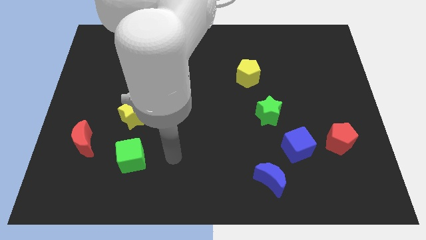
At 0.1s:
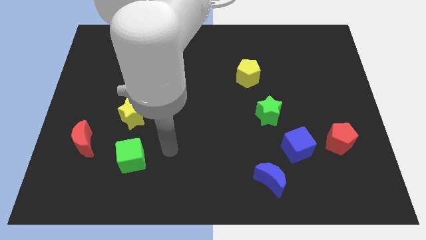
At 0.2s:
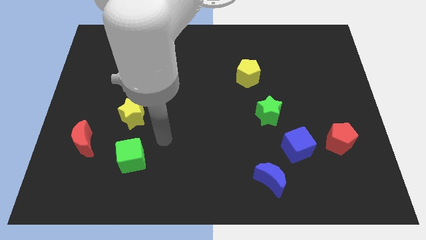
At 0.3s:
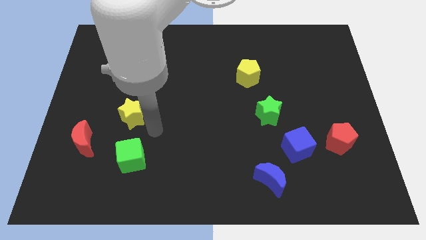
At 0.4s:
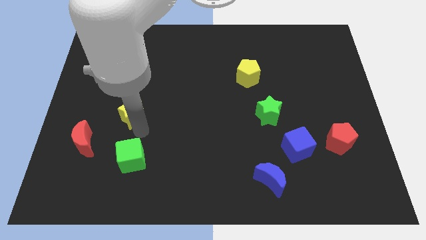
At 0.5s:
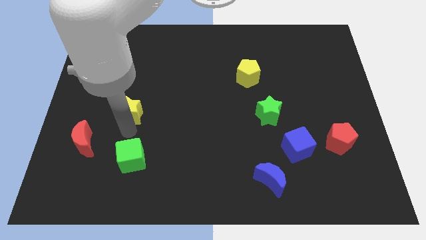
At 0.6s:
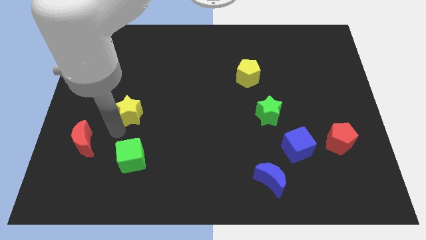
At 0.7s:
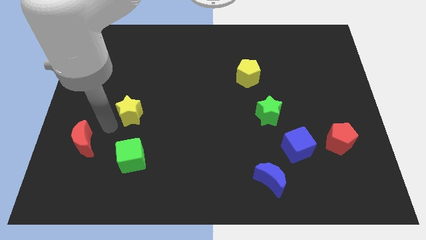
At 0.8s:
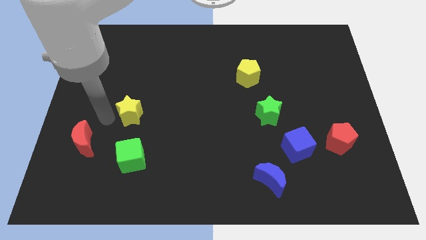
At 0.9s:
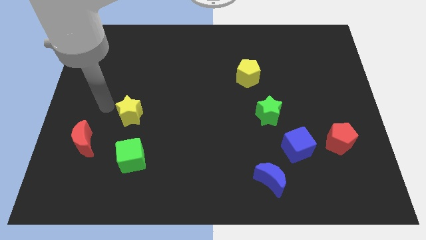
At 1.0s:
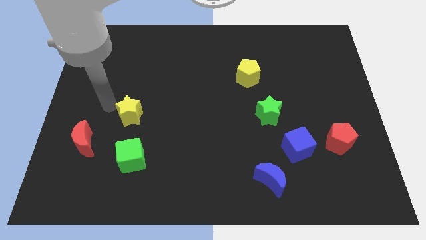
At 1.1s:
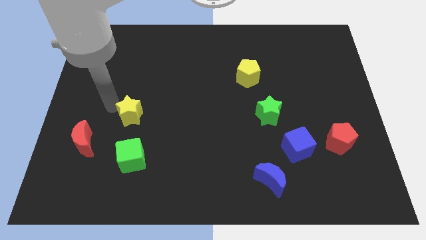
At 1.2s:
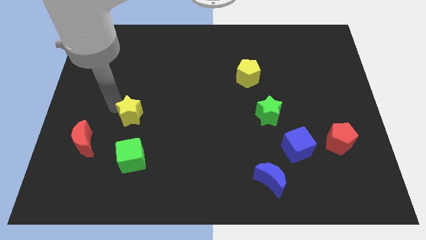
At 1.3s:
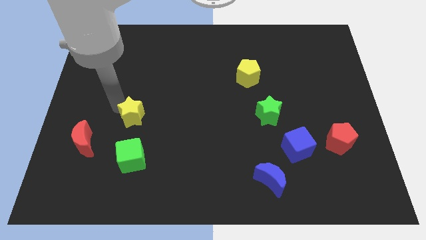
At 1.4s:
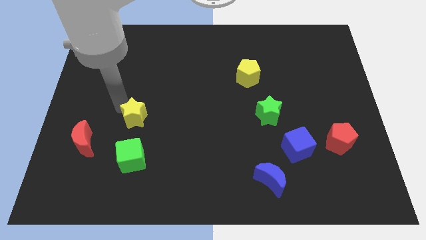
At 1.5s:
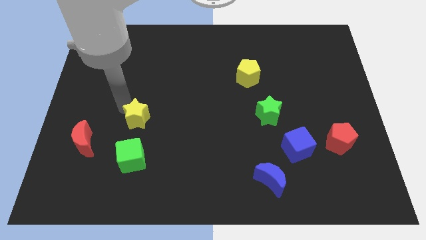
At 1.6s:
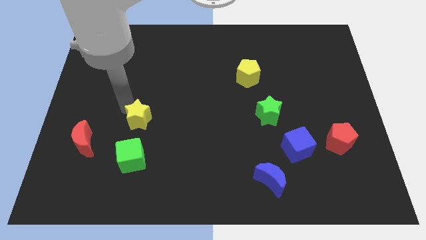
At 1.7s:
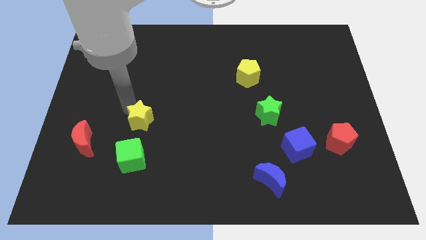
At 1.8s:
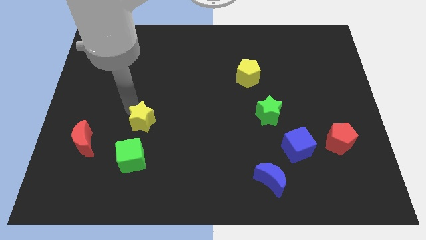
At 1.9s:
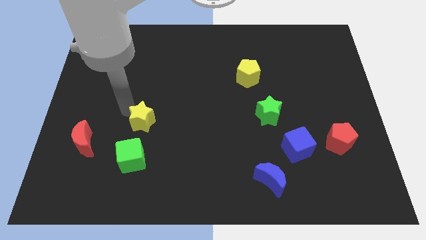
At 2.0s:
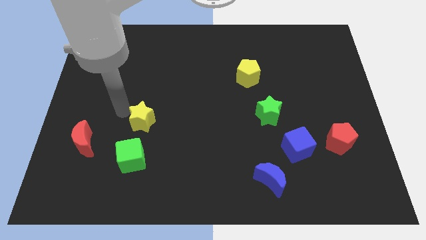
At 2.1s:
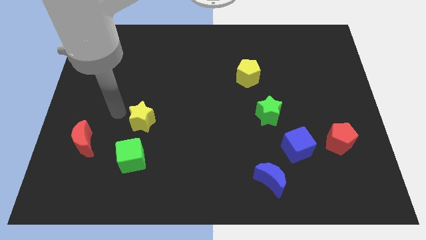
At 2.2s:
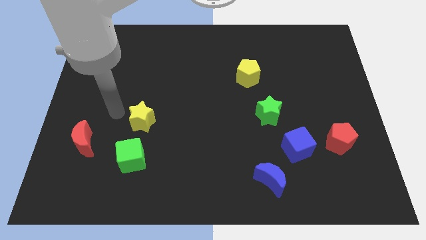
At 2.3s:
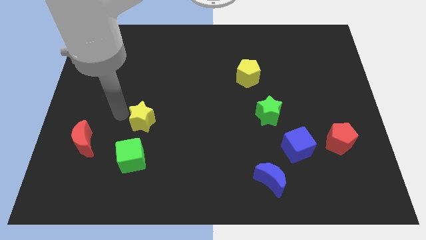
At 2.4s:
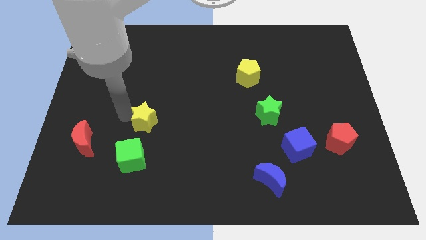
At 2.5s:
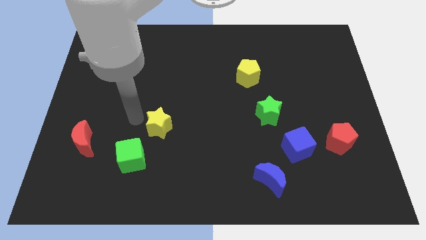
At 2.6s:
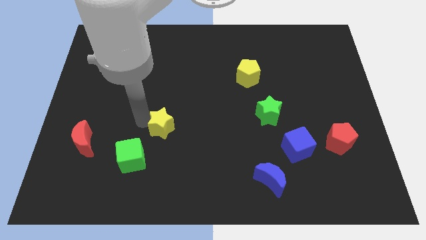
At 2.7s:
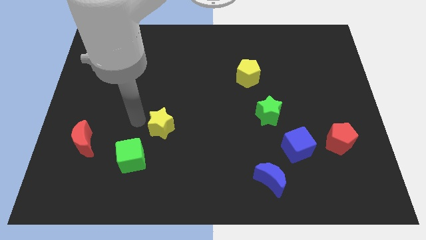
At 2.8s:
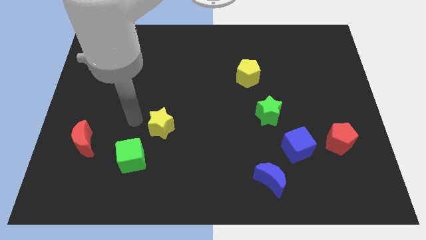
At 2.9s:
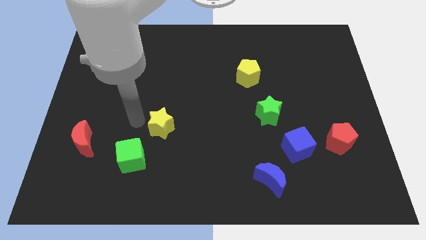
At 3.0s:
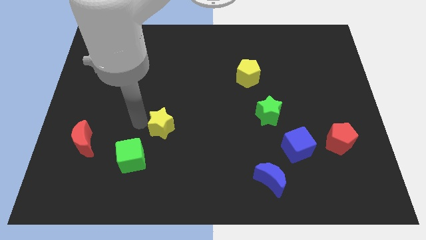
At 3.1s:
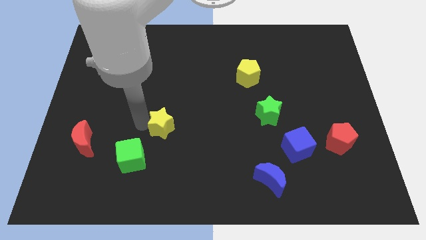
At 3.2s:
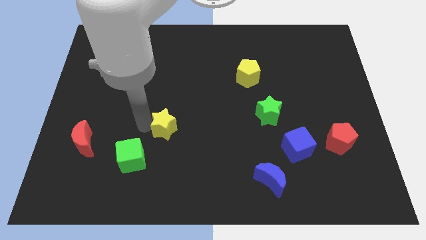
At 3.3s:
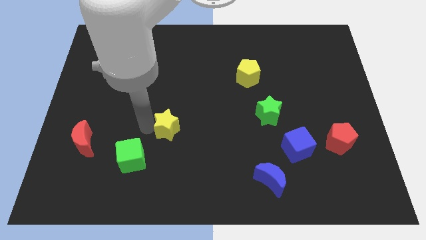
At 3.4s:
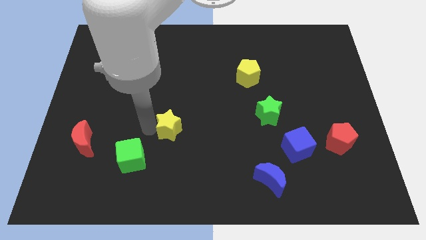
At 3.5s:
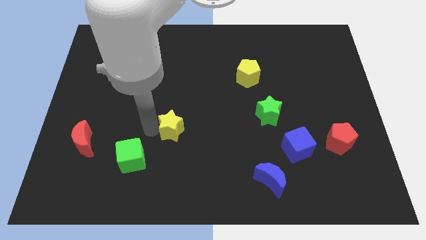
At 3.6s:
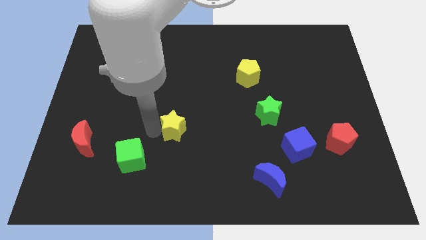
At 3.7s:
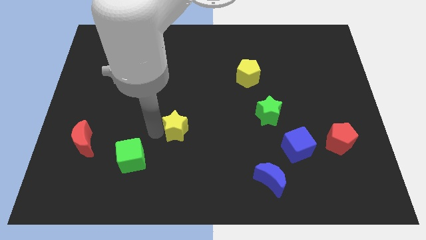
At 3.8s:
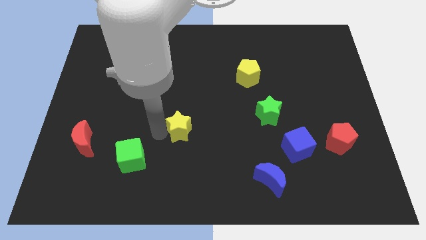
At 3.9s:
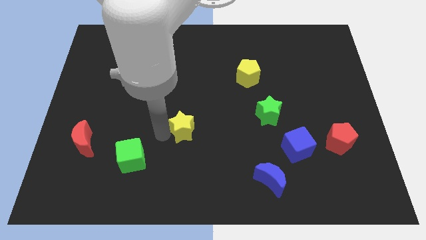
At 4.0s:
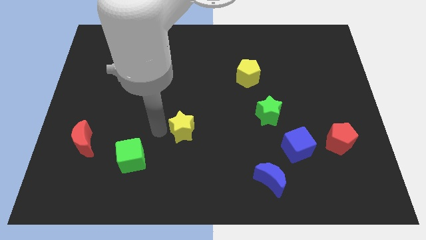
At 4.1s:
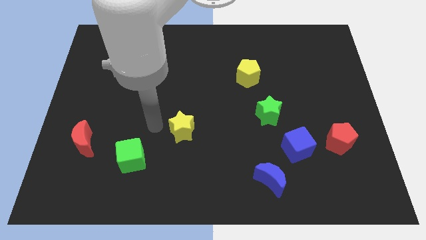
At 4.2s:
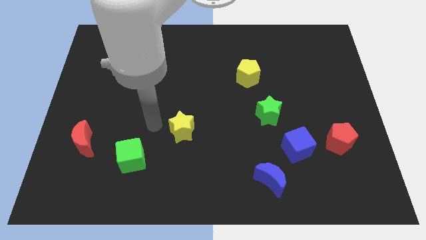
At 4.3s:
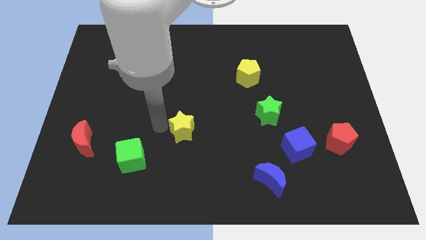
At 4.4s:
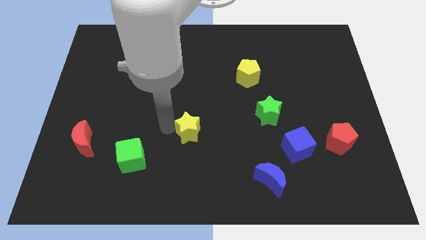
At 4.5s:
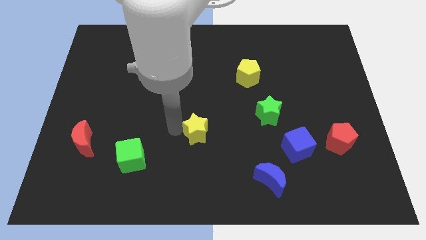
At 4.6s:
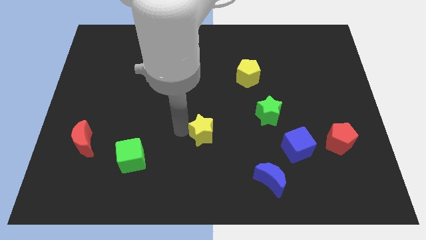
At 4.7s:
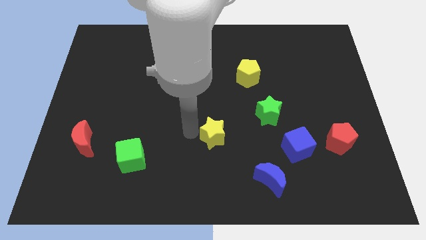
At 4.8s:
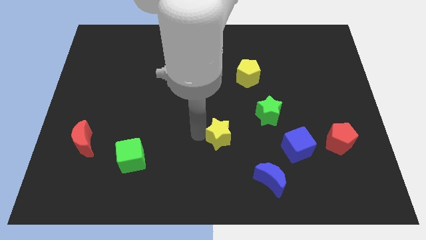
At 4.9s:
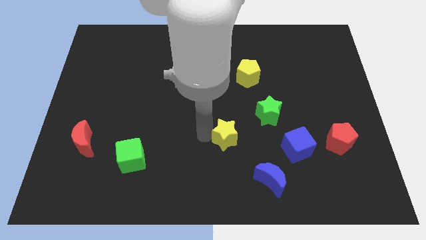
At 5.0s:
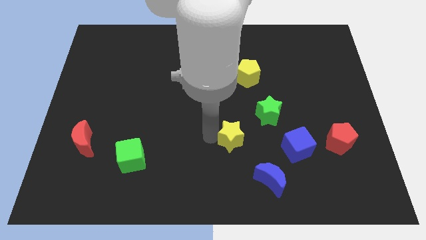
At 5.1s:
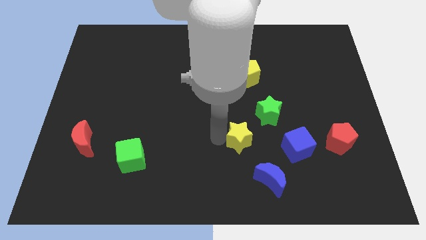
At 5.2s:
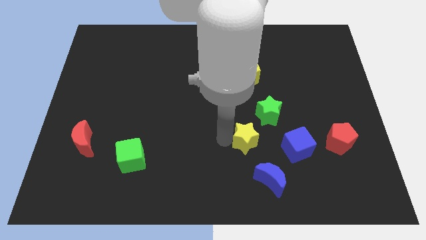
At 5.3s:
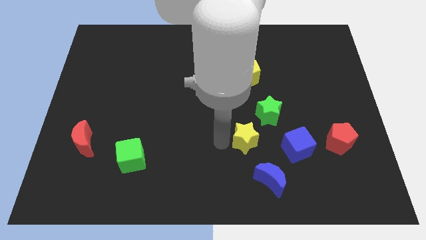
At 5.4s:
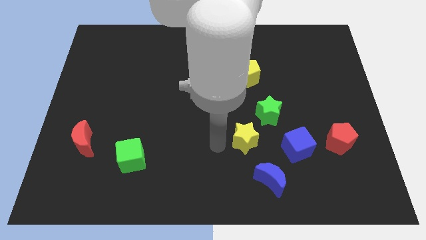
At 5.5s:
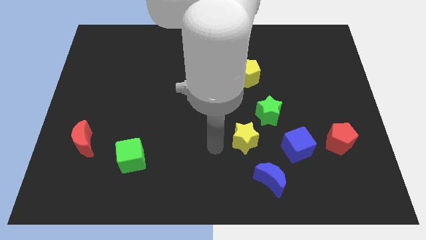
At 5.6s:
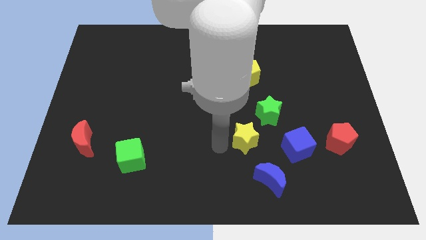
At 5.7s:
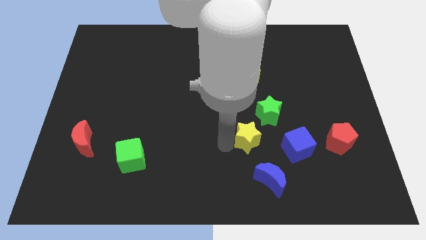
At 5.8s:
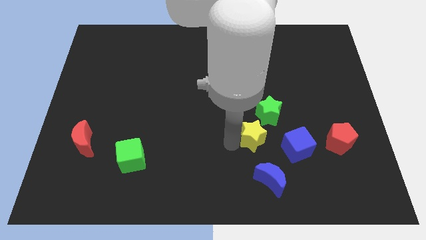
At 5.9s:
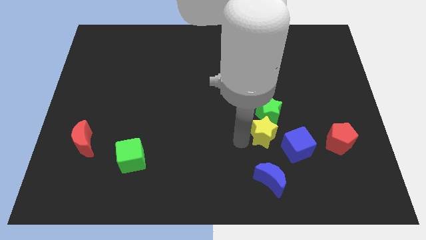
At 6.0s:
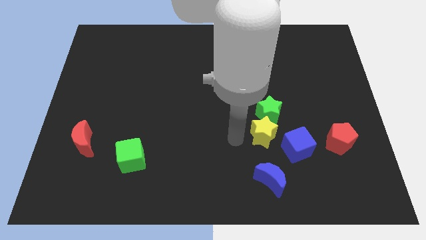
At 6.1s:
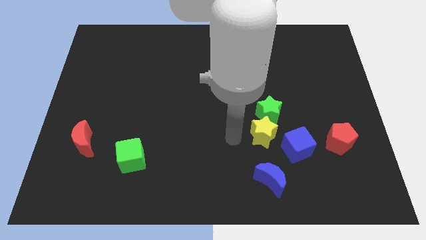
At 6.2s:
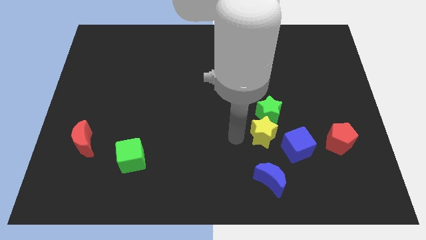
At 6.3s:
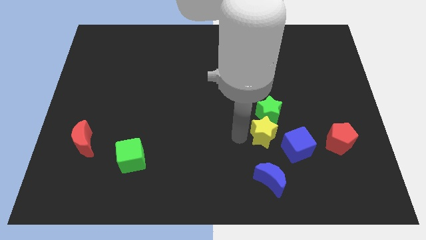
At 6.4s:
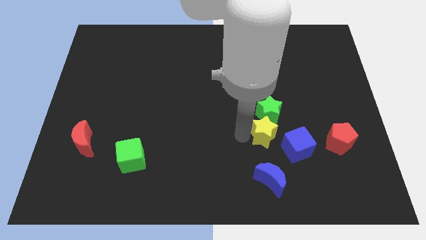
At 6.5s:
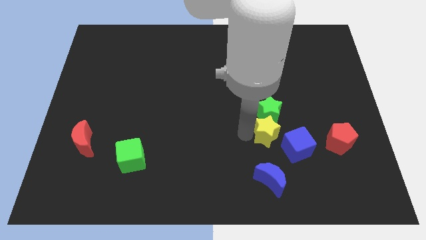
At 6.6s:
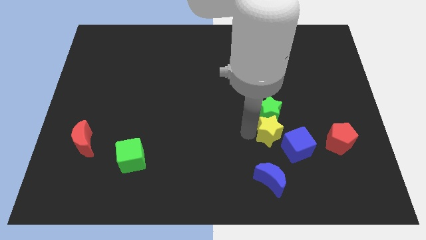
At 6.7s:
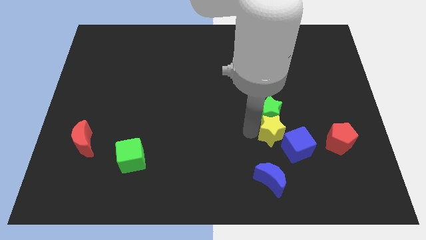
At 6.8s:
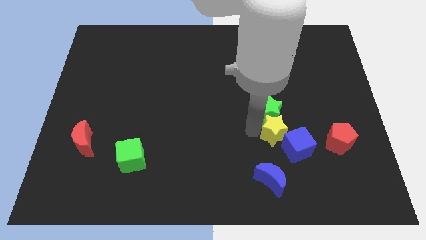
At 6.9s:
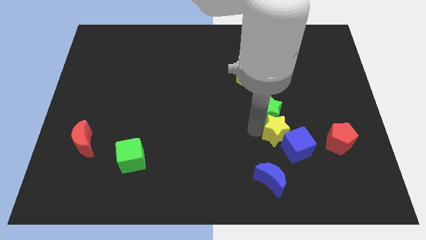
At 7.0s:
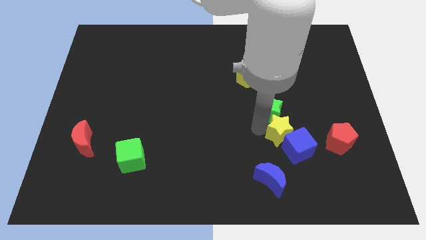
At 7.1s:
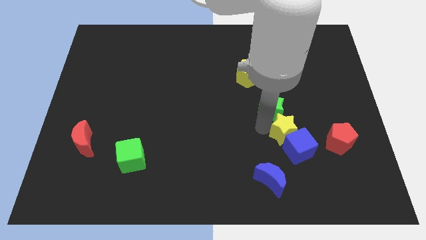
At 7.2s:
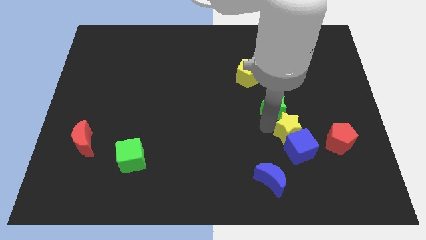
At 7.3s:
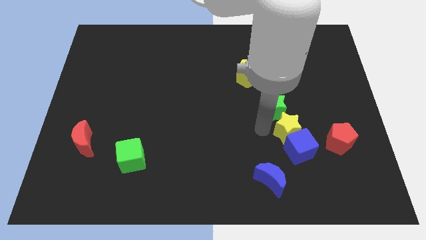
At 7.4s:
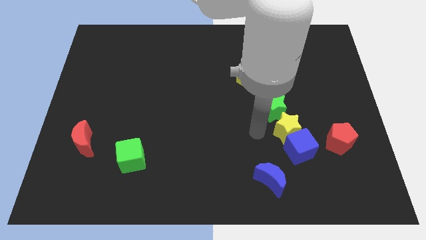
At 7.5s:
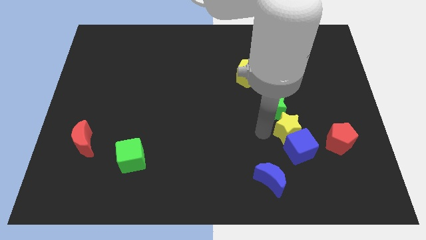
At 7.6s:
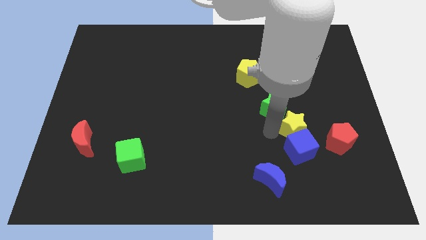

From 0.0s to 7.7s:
move the yellow star diagonally up and to the right of the blue cube
